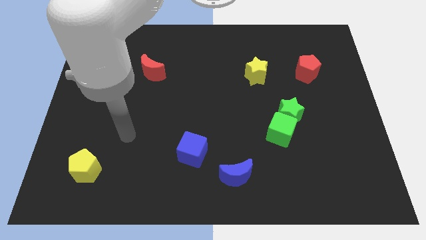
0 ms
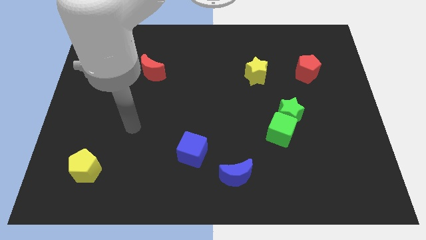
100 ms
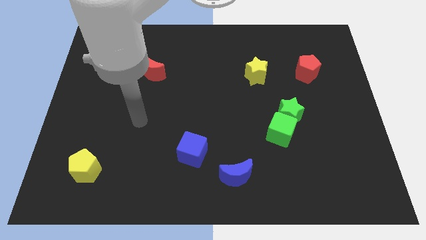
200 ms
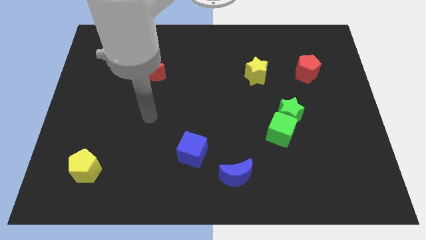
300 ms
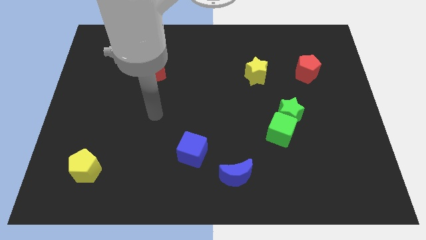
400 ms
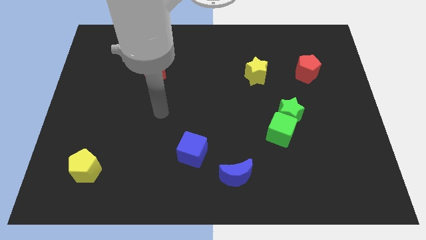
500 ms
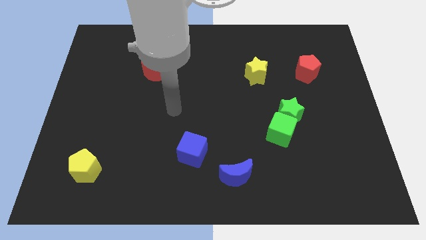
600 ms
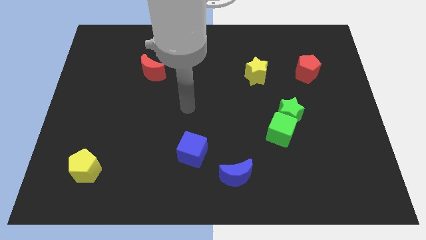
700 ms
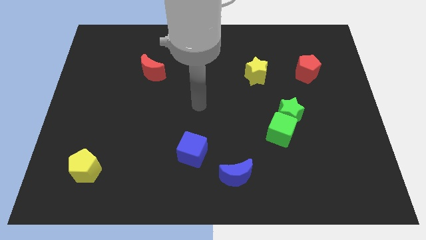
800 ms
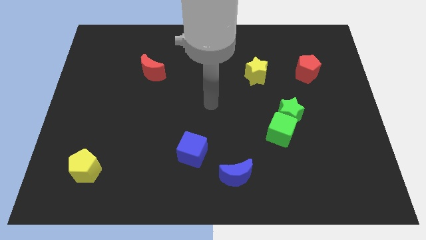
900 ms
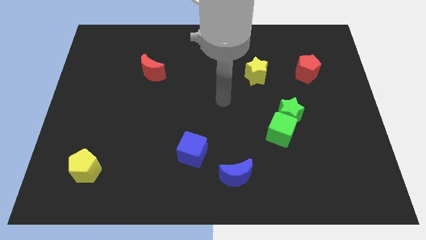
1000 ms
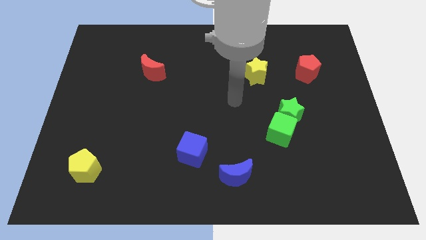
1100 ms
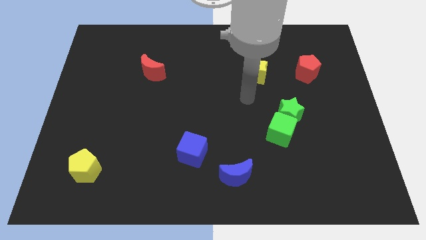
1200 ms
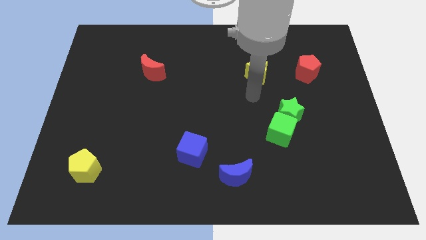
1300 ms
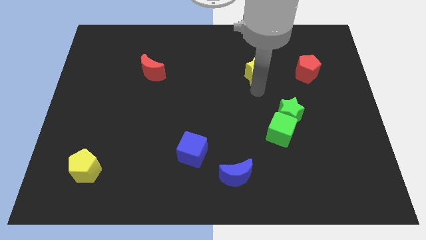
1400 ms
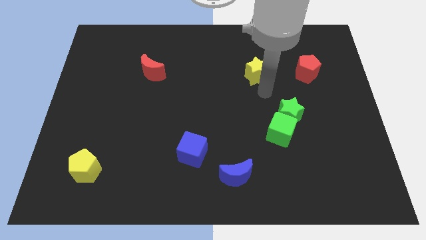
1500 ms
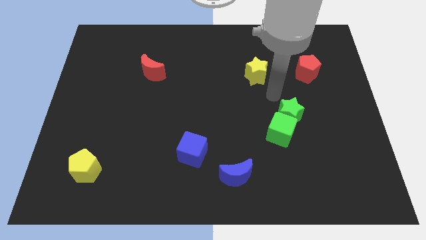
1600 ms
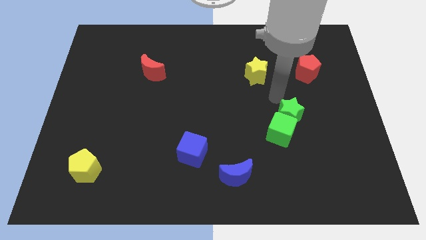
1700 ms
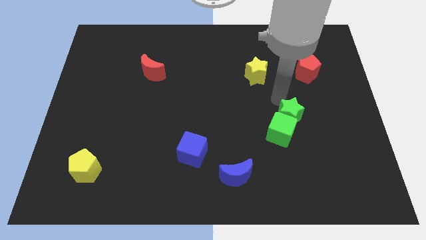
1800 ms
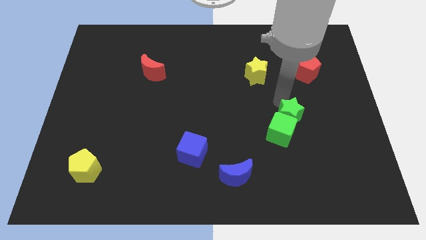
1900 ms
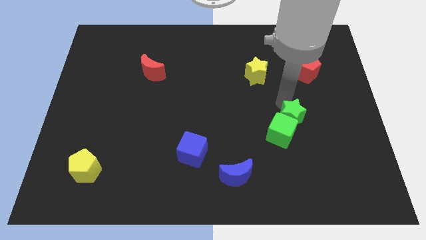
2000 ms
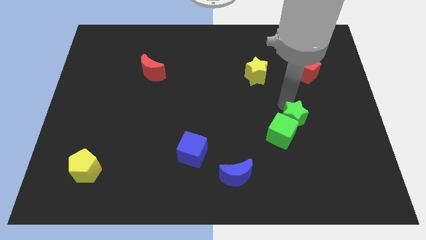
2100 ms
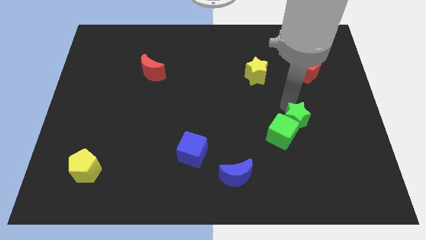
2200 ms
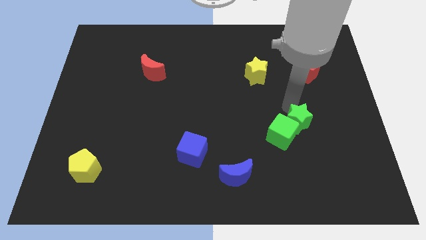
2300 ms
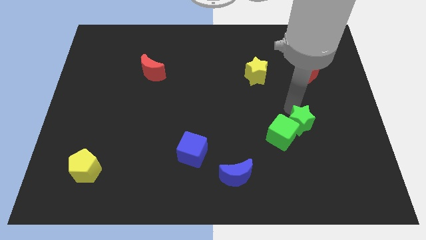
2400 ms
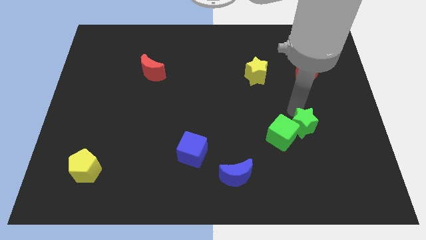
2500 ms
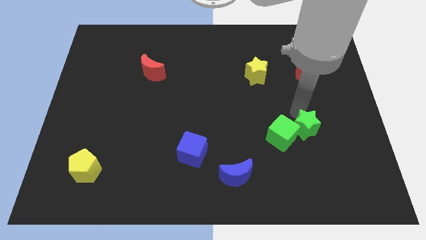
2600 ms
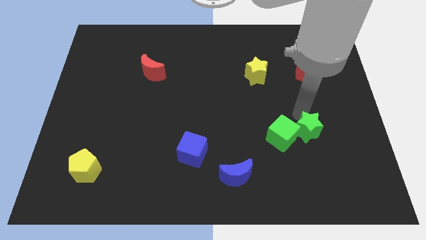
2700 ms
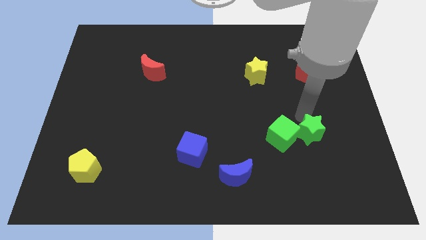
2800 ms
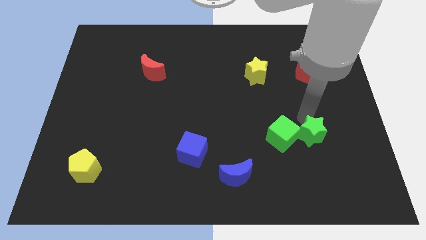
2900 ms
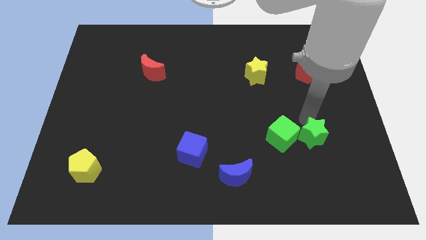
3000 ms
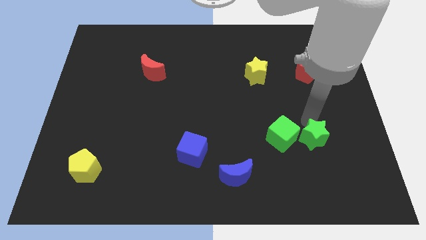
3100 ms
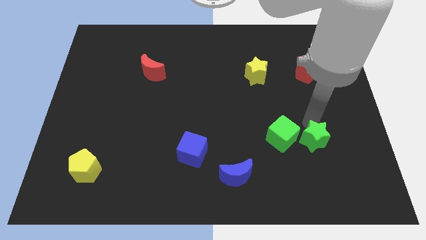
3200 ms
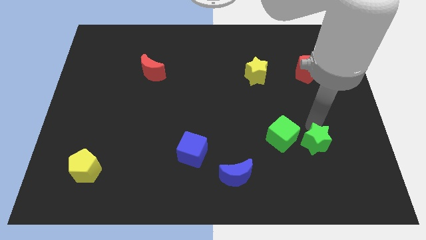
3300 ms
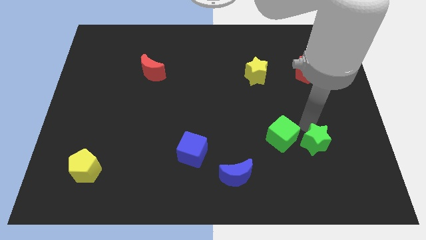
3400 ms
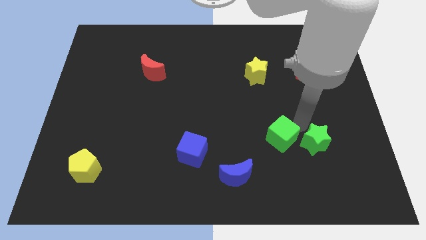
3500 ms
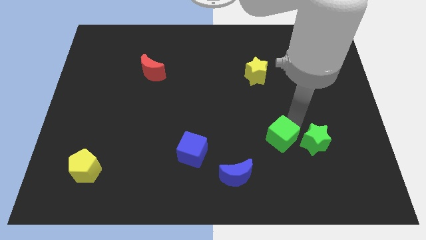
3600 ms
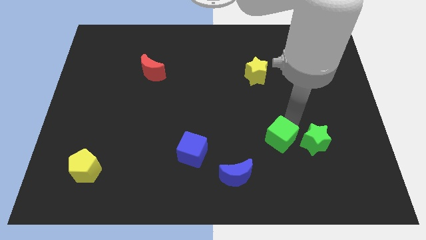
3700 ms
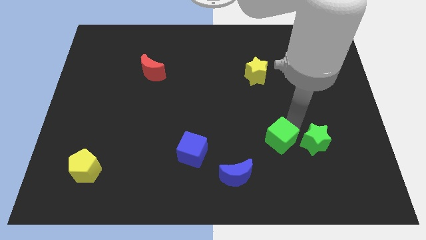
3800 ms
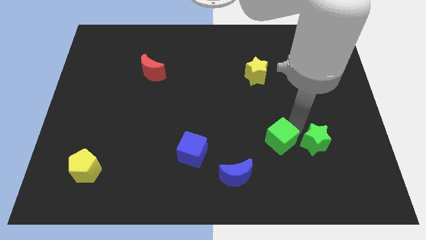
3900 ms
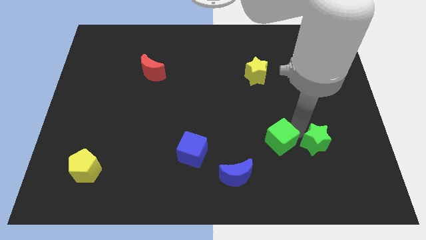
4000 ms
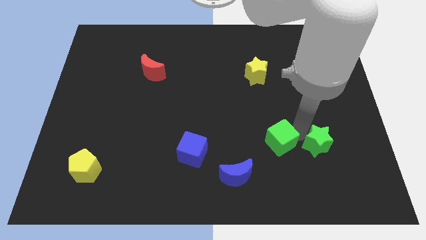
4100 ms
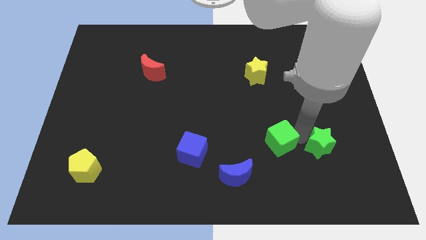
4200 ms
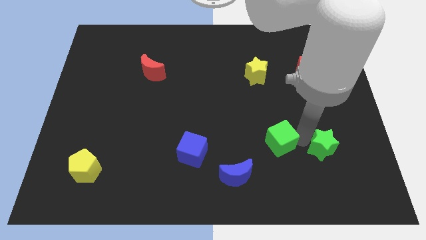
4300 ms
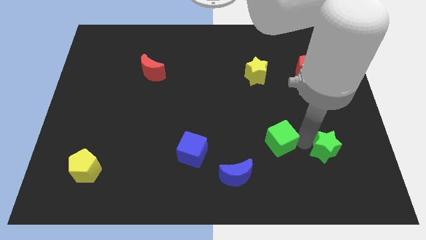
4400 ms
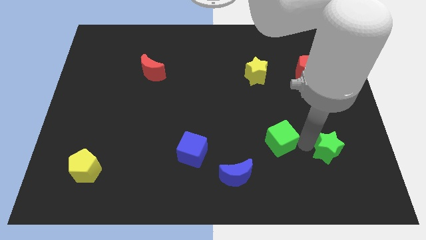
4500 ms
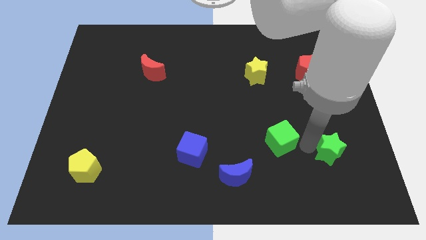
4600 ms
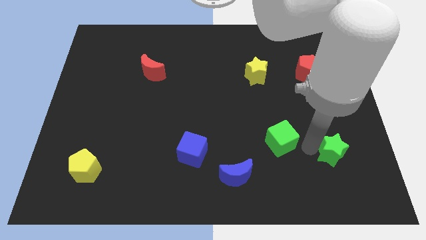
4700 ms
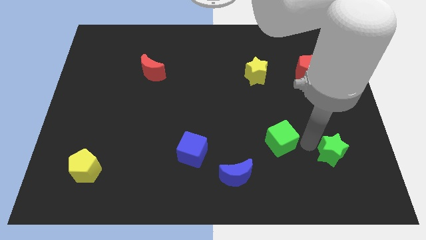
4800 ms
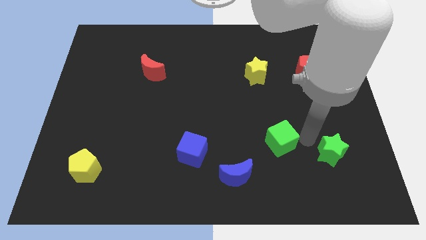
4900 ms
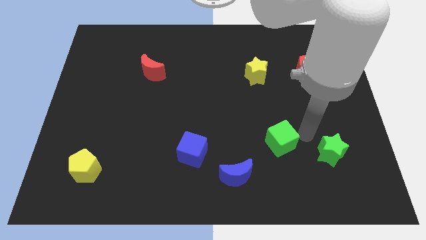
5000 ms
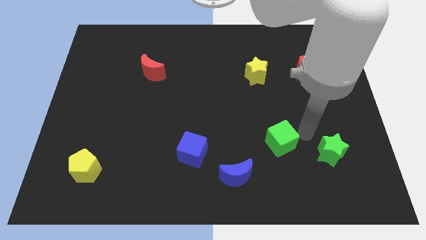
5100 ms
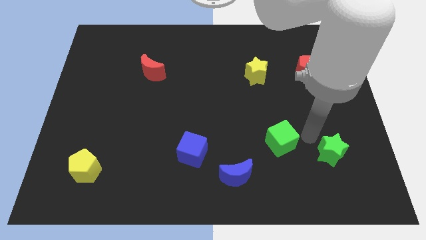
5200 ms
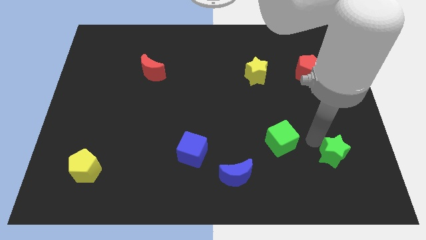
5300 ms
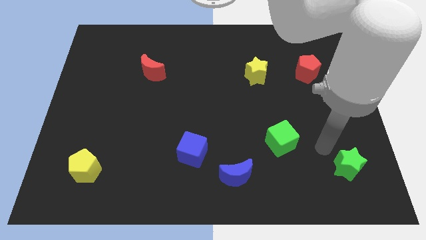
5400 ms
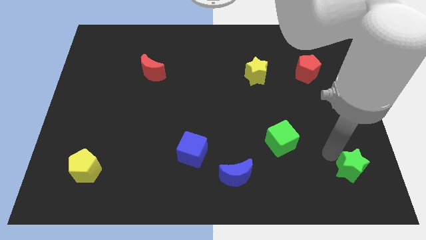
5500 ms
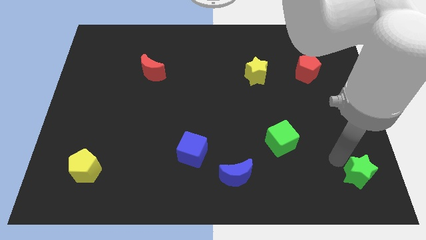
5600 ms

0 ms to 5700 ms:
put the green star to the bottom right corner
